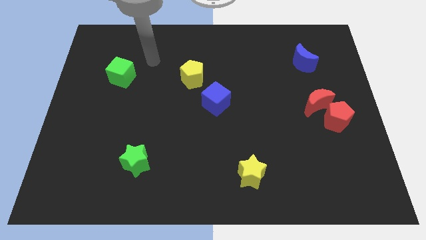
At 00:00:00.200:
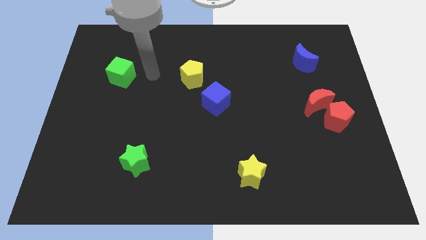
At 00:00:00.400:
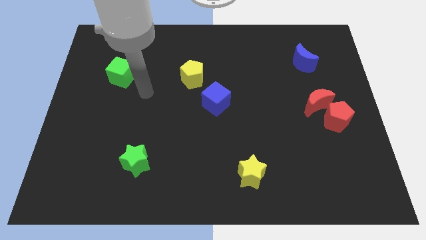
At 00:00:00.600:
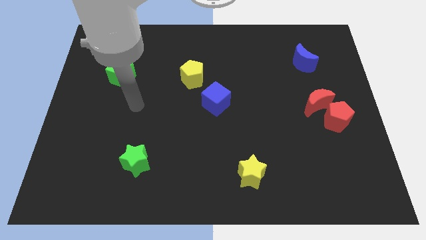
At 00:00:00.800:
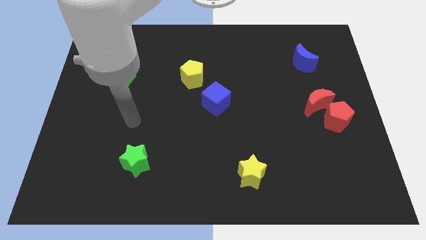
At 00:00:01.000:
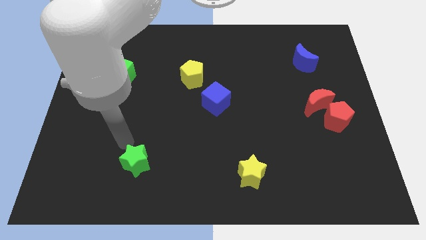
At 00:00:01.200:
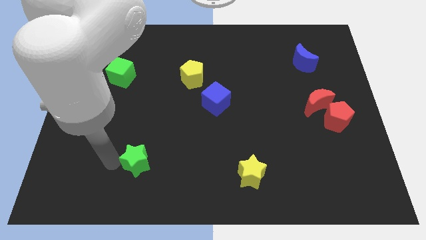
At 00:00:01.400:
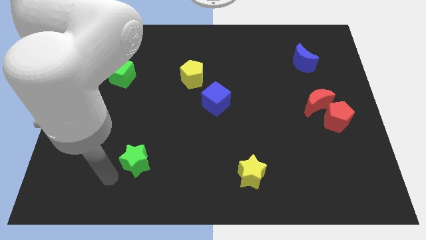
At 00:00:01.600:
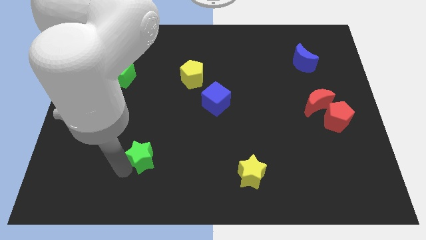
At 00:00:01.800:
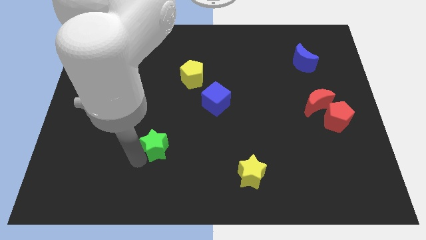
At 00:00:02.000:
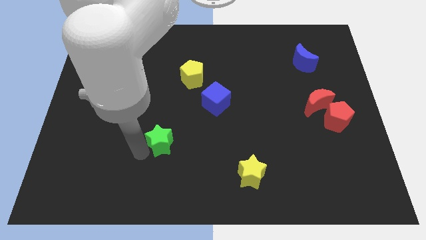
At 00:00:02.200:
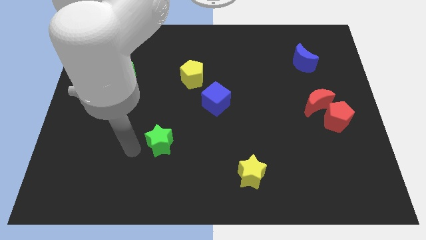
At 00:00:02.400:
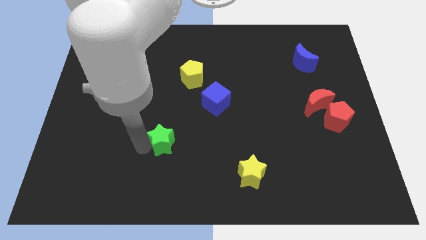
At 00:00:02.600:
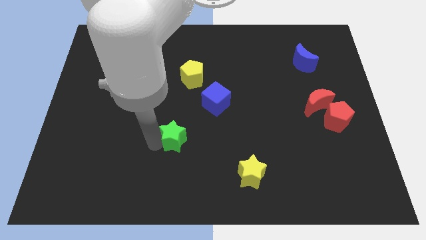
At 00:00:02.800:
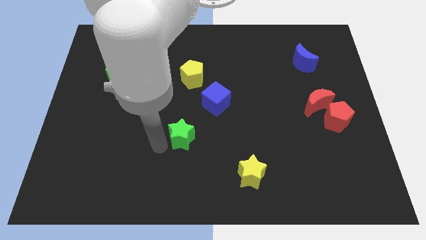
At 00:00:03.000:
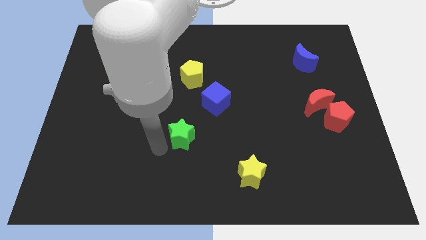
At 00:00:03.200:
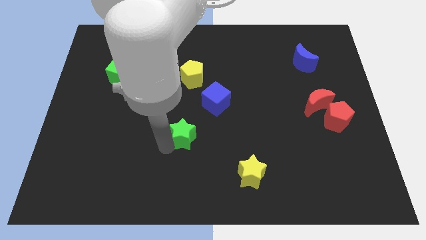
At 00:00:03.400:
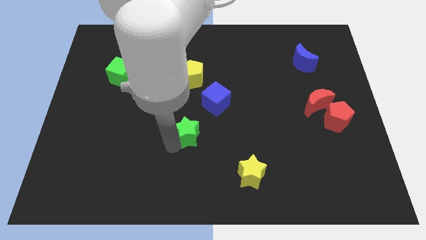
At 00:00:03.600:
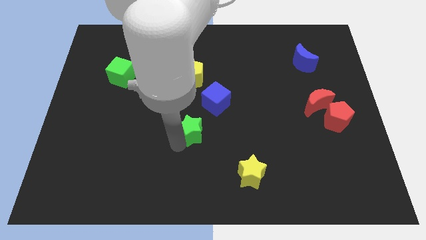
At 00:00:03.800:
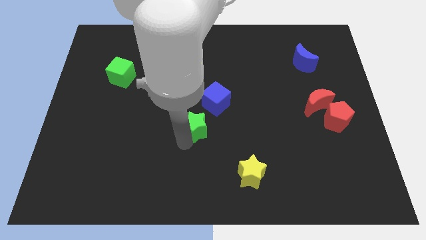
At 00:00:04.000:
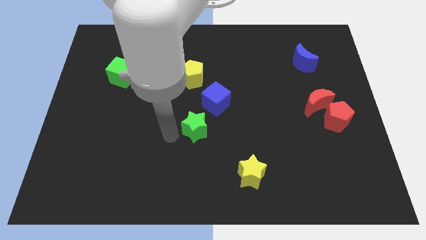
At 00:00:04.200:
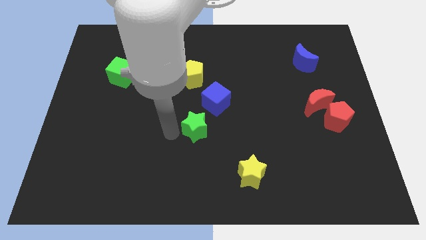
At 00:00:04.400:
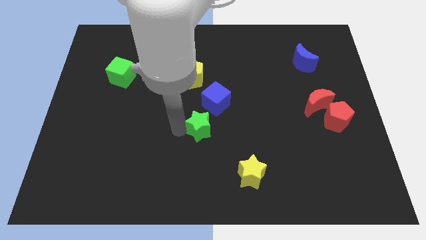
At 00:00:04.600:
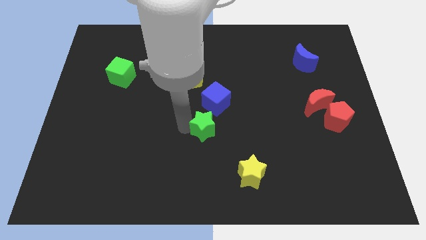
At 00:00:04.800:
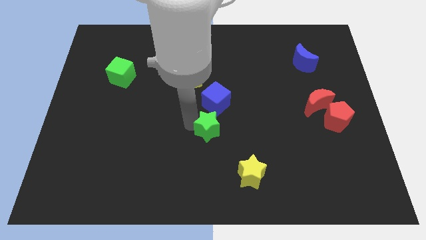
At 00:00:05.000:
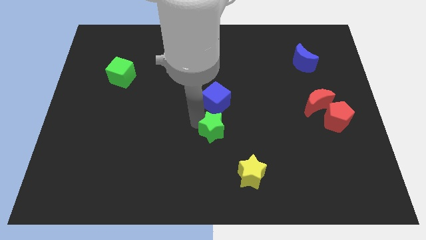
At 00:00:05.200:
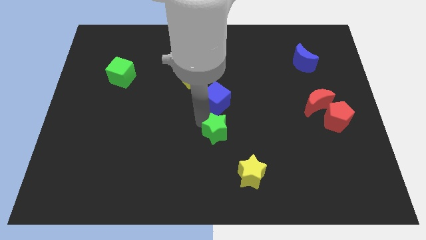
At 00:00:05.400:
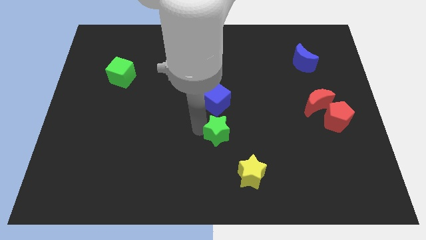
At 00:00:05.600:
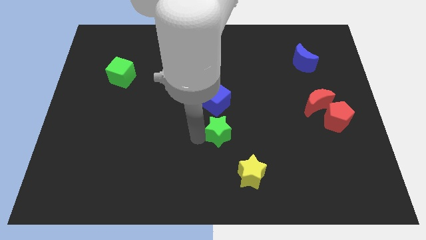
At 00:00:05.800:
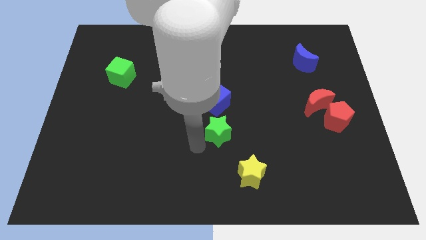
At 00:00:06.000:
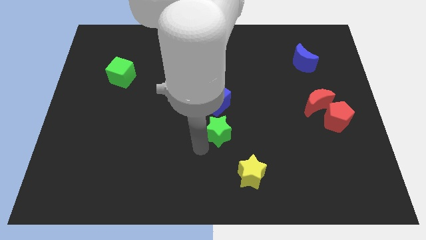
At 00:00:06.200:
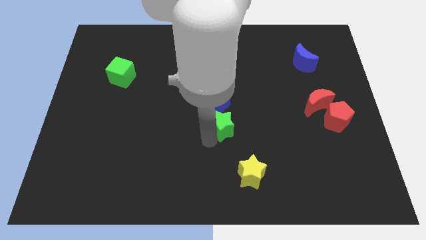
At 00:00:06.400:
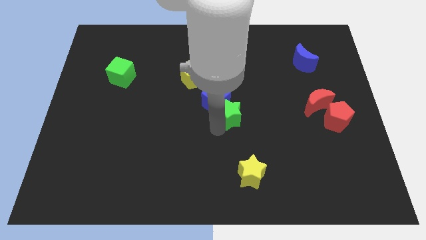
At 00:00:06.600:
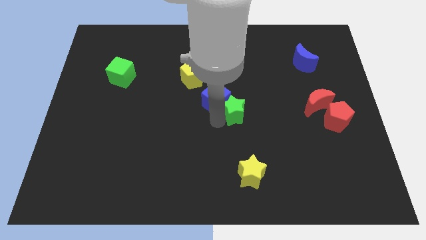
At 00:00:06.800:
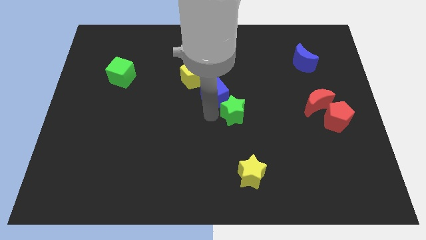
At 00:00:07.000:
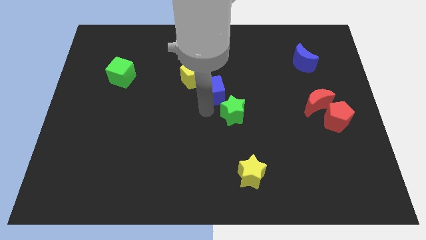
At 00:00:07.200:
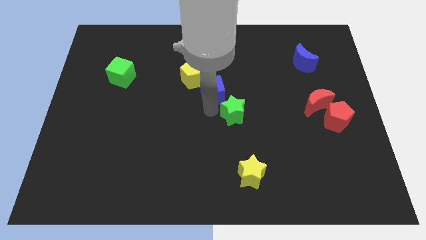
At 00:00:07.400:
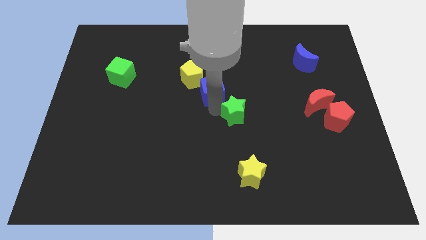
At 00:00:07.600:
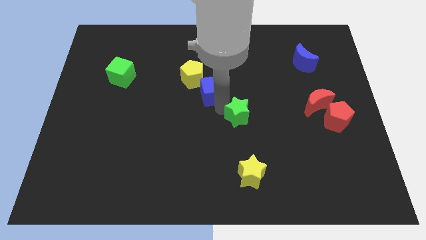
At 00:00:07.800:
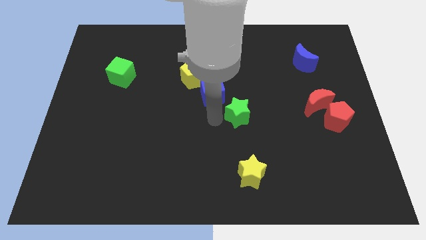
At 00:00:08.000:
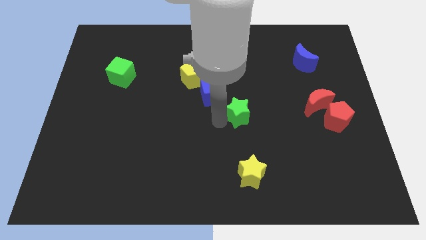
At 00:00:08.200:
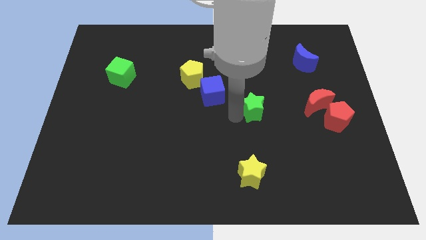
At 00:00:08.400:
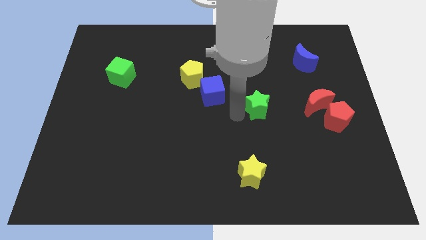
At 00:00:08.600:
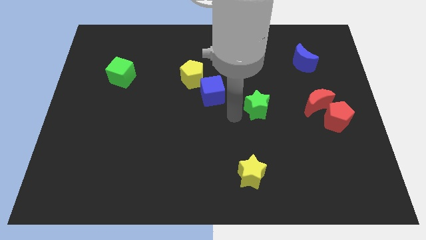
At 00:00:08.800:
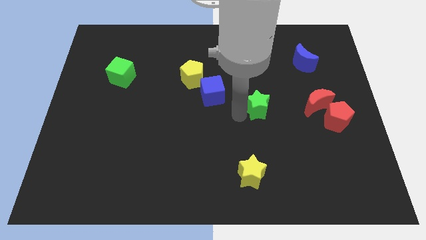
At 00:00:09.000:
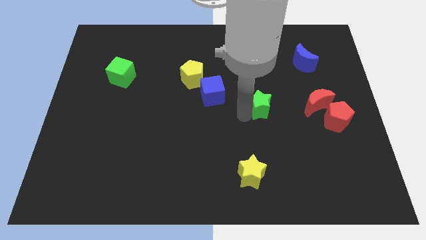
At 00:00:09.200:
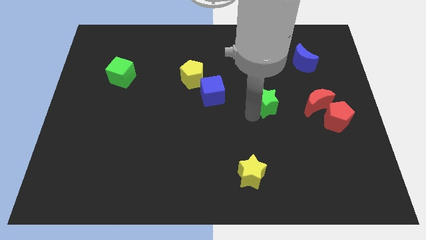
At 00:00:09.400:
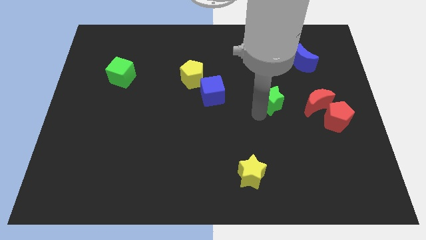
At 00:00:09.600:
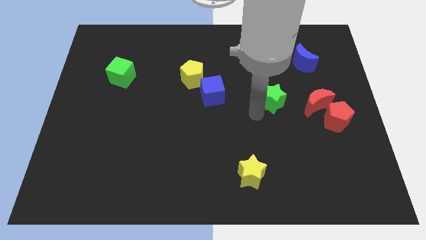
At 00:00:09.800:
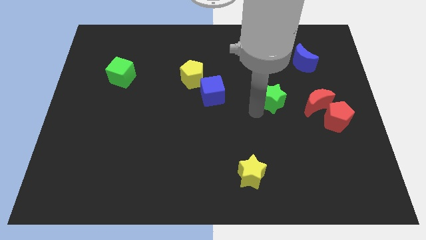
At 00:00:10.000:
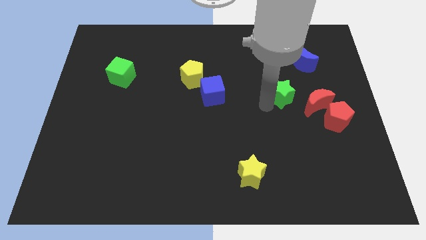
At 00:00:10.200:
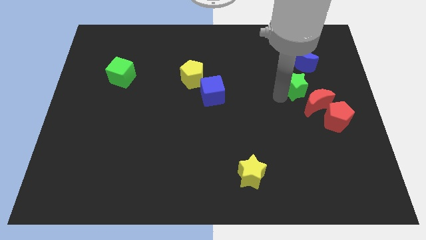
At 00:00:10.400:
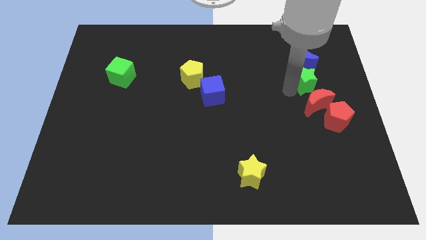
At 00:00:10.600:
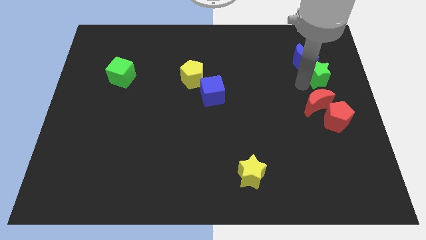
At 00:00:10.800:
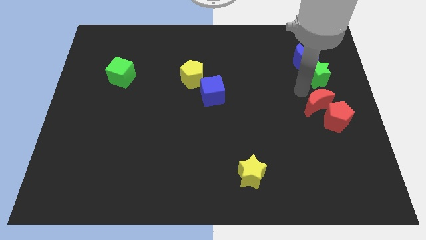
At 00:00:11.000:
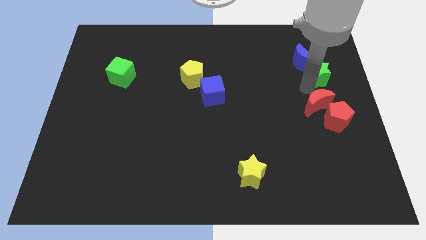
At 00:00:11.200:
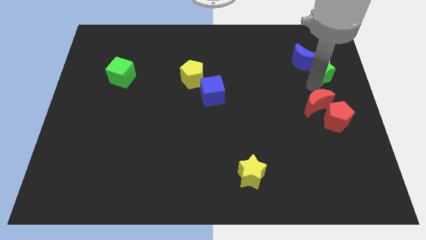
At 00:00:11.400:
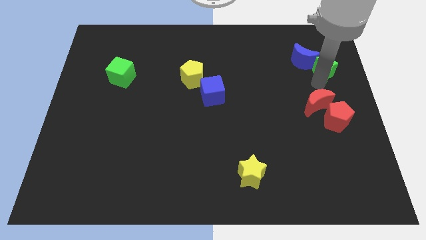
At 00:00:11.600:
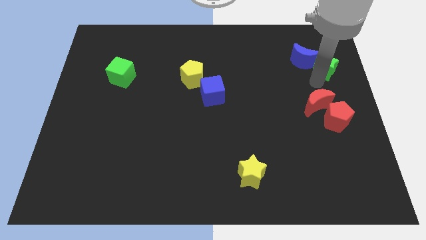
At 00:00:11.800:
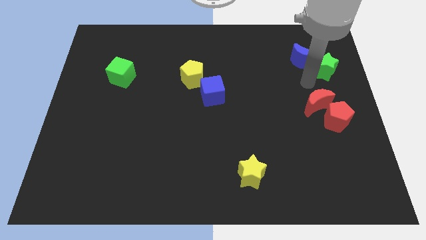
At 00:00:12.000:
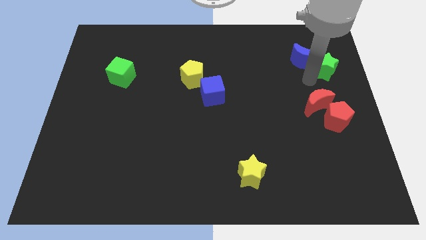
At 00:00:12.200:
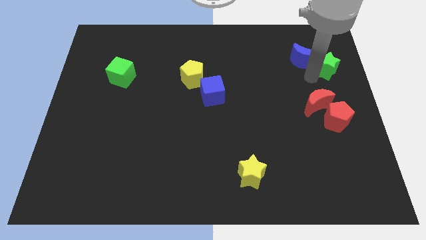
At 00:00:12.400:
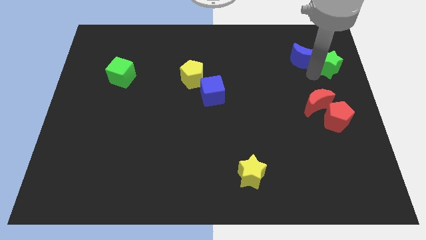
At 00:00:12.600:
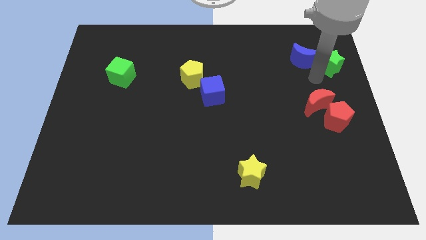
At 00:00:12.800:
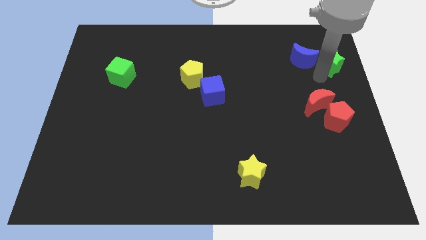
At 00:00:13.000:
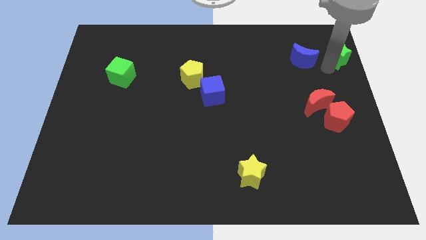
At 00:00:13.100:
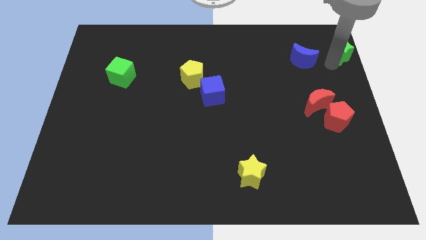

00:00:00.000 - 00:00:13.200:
put the green star to the top right corner
